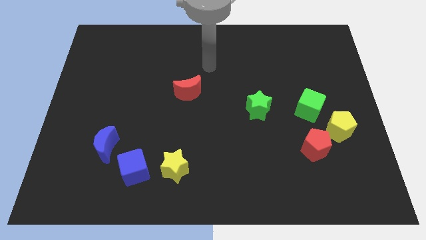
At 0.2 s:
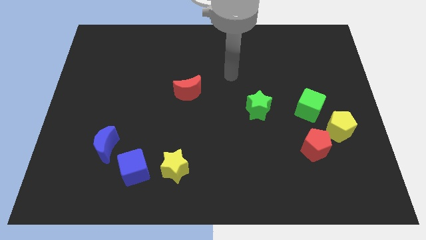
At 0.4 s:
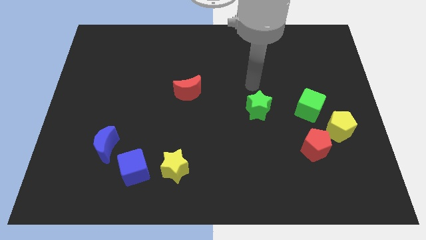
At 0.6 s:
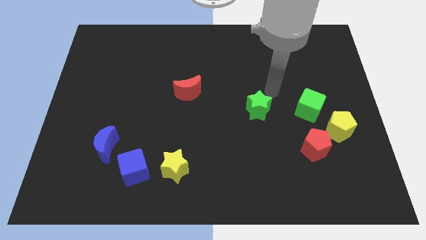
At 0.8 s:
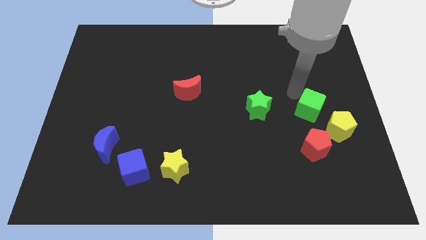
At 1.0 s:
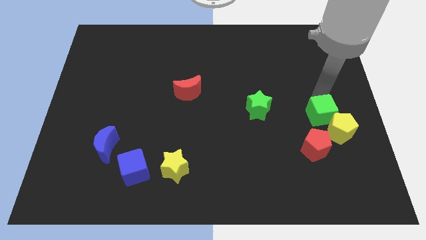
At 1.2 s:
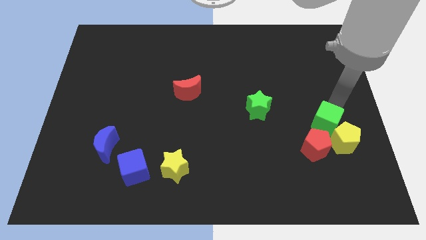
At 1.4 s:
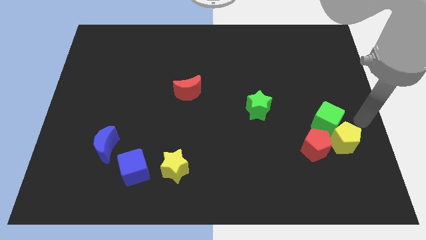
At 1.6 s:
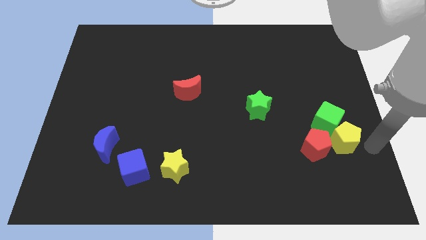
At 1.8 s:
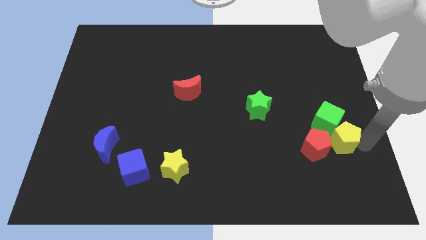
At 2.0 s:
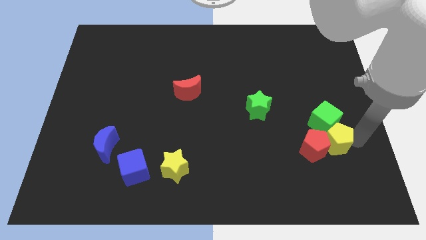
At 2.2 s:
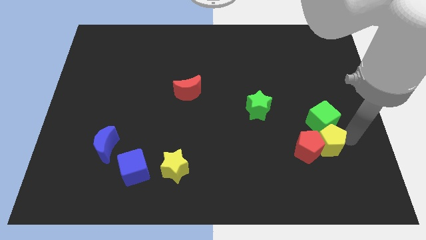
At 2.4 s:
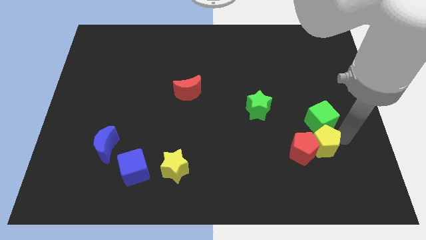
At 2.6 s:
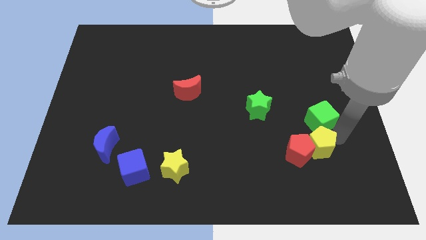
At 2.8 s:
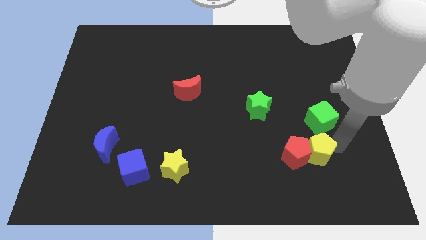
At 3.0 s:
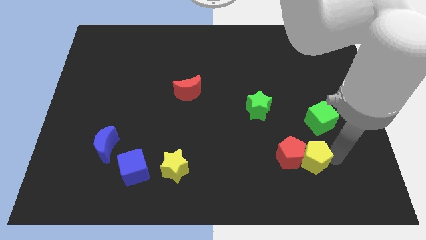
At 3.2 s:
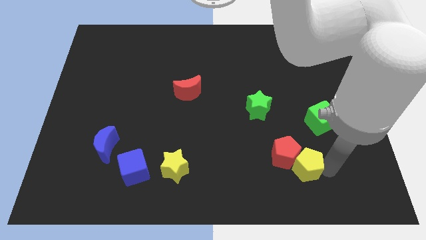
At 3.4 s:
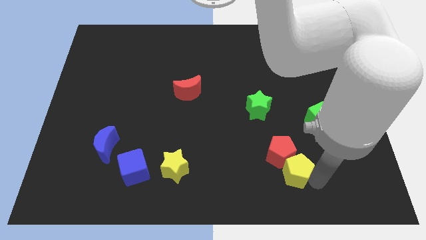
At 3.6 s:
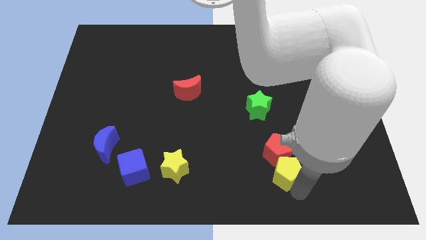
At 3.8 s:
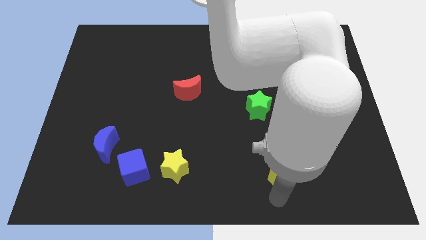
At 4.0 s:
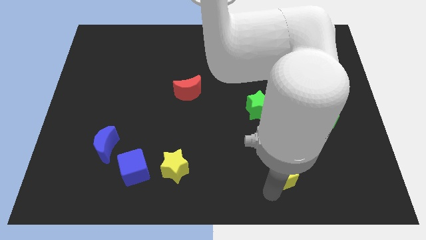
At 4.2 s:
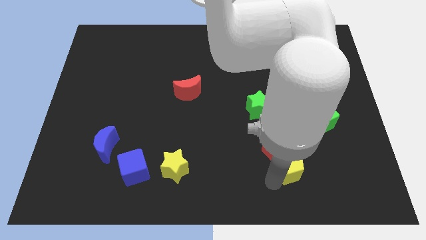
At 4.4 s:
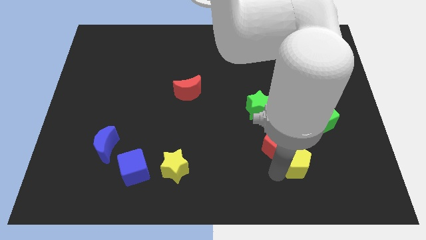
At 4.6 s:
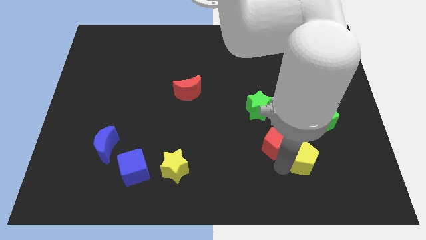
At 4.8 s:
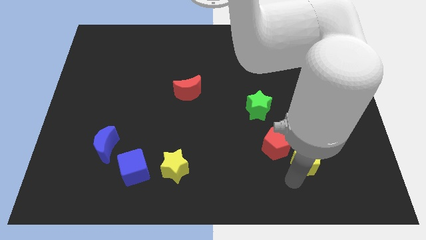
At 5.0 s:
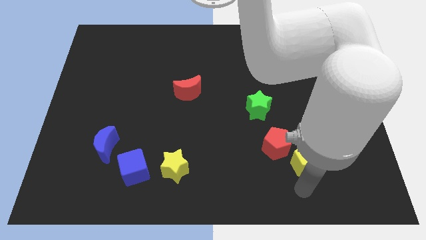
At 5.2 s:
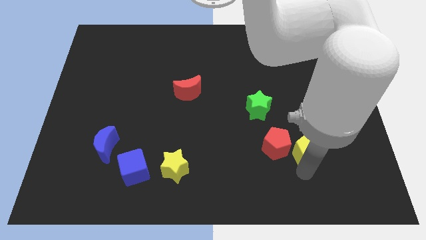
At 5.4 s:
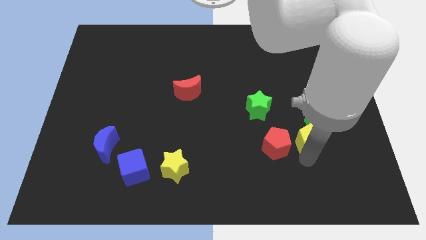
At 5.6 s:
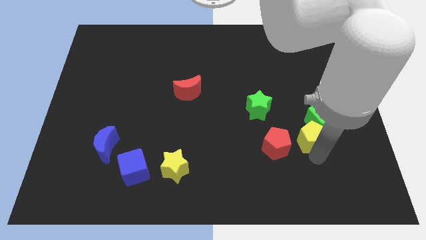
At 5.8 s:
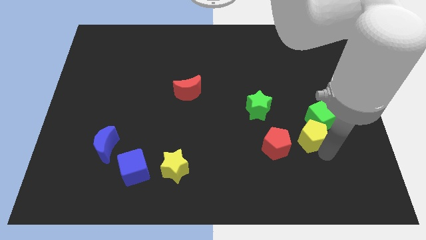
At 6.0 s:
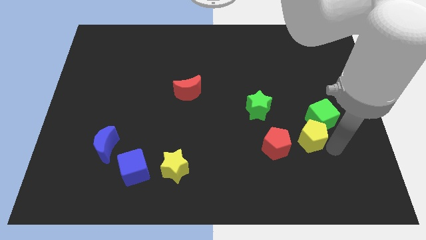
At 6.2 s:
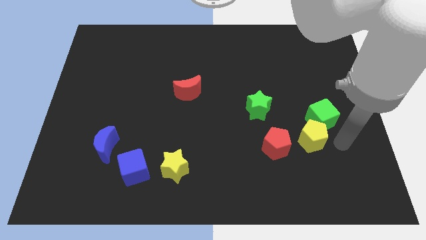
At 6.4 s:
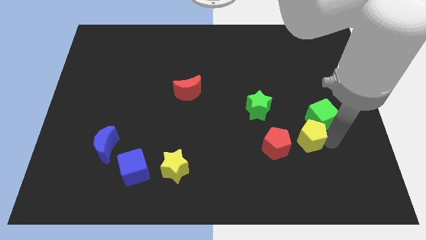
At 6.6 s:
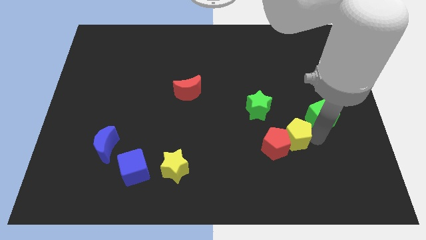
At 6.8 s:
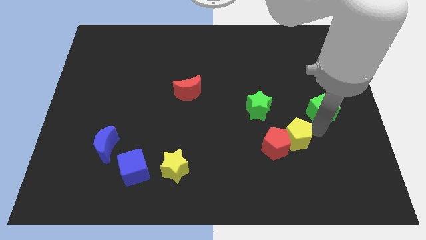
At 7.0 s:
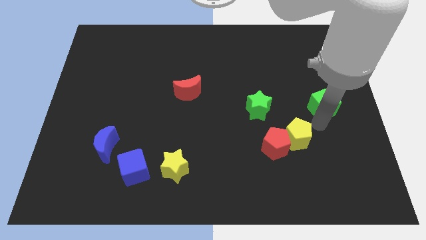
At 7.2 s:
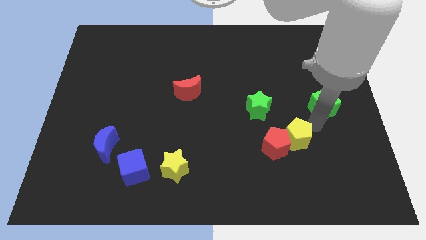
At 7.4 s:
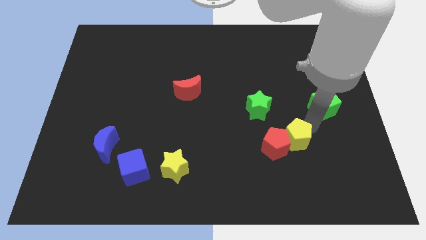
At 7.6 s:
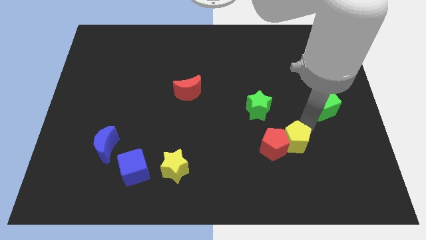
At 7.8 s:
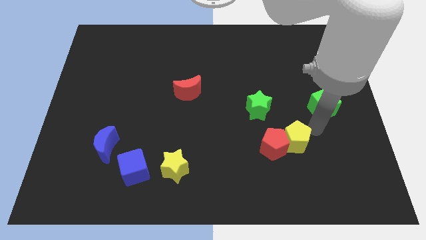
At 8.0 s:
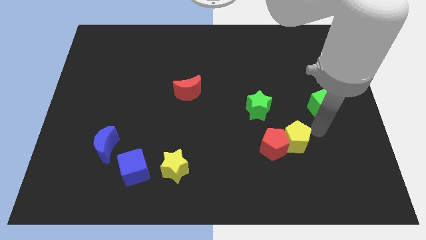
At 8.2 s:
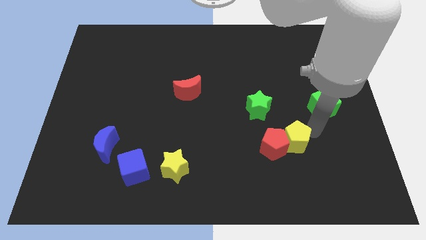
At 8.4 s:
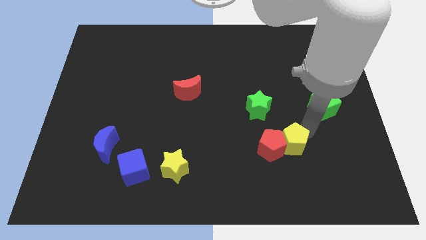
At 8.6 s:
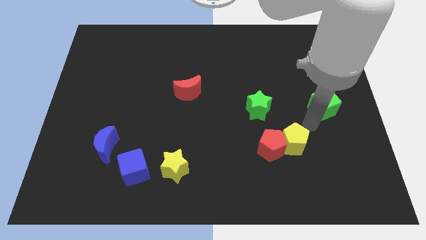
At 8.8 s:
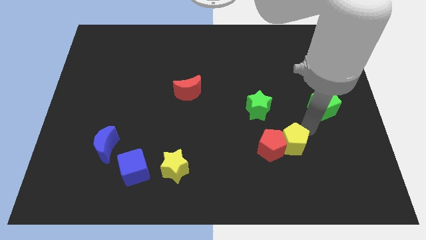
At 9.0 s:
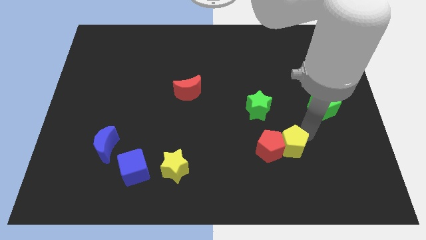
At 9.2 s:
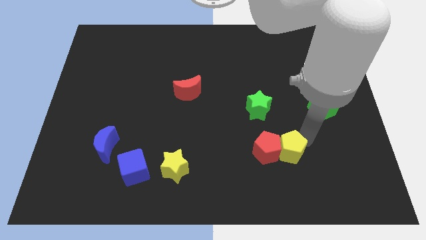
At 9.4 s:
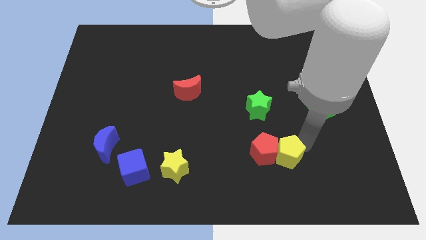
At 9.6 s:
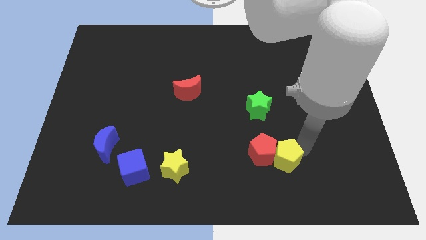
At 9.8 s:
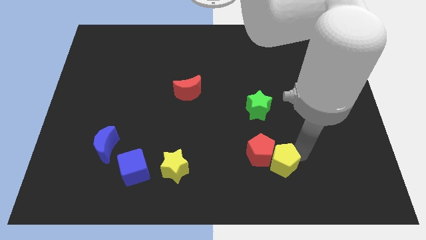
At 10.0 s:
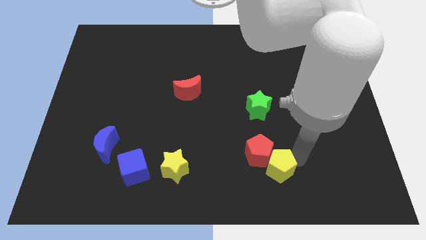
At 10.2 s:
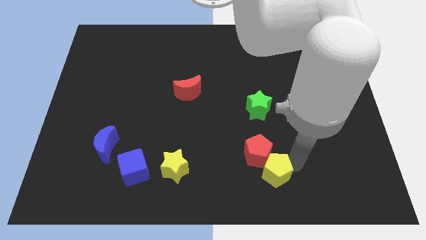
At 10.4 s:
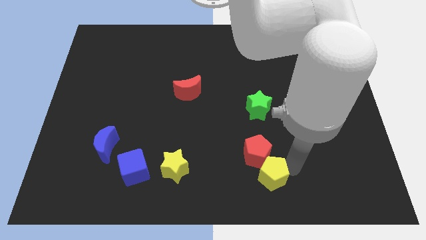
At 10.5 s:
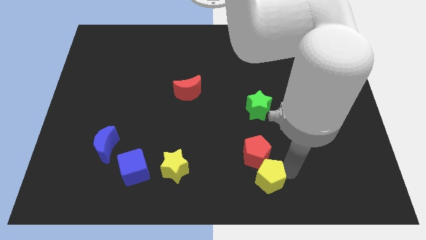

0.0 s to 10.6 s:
put the yellow pentagon to the bottom
